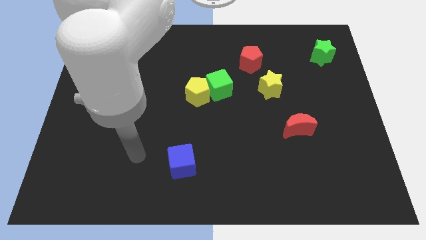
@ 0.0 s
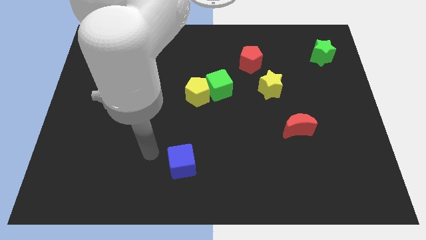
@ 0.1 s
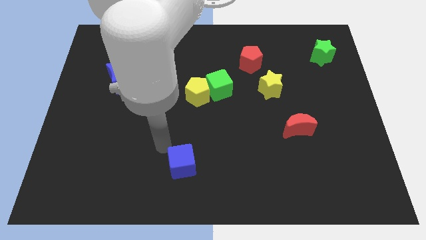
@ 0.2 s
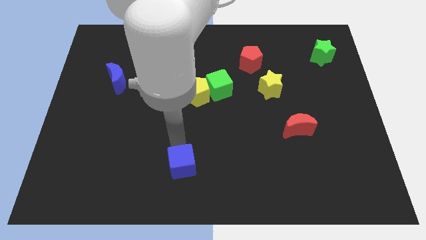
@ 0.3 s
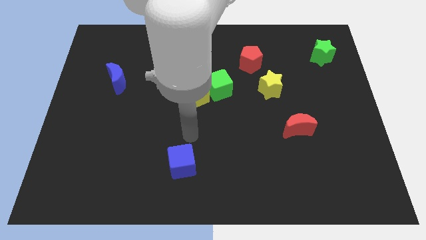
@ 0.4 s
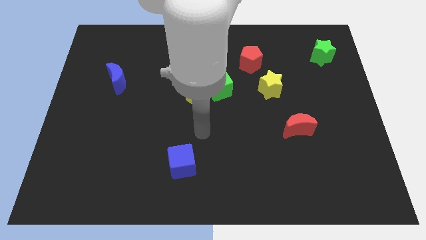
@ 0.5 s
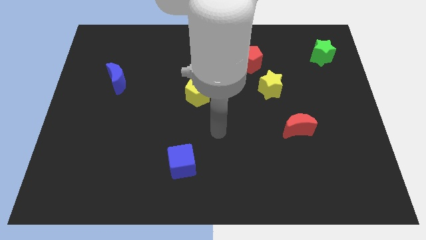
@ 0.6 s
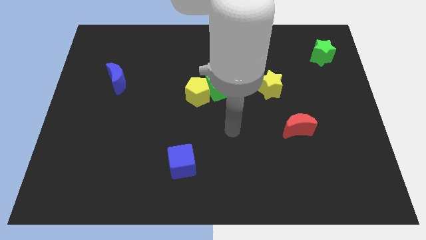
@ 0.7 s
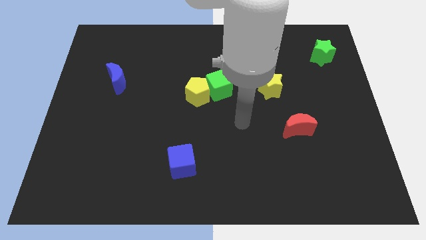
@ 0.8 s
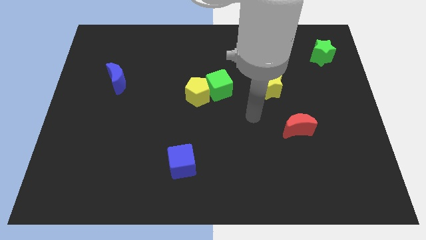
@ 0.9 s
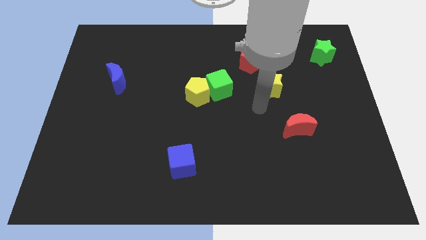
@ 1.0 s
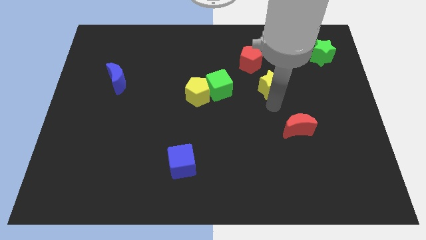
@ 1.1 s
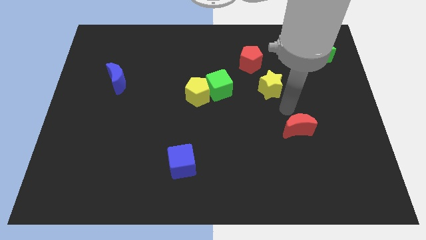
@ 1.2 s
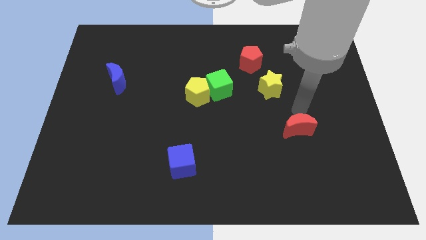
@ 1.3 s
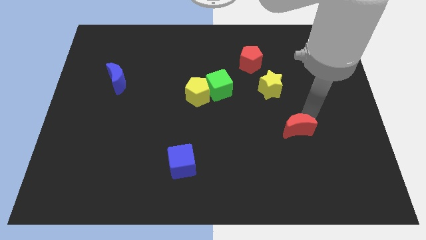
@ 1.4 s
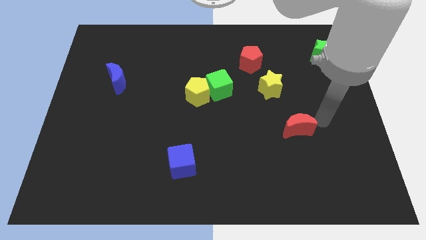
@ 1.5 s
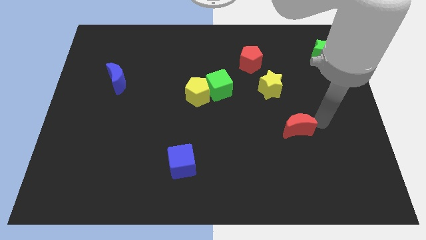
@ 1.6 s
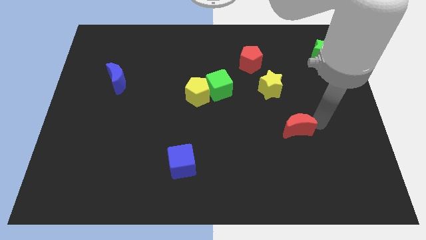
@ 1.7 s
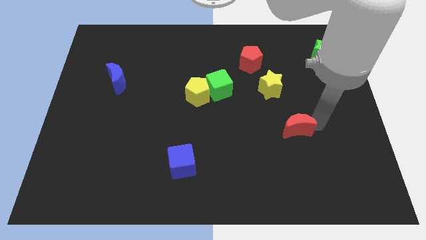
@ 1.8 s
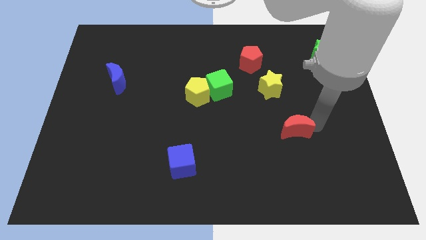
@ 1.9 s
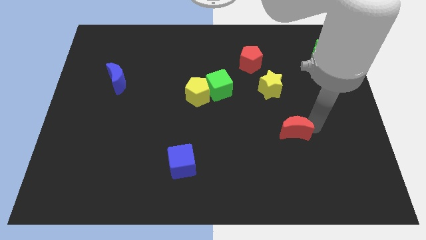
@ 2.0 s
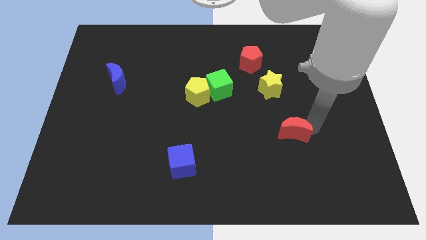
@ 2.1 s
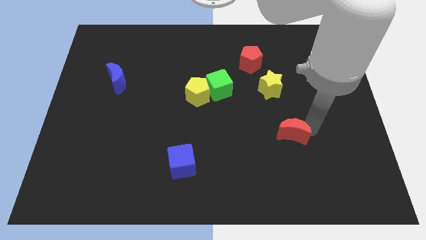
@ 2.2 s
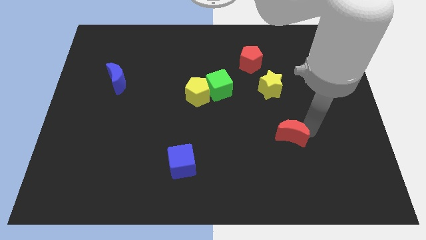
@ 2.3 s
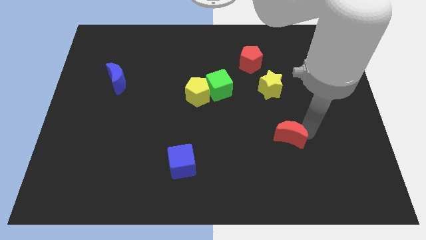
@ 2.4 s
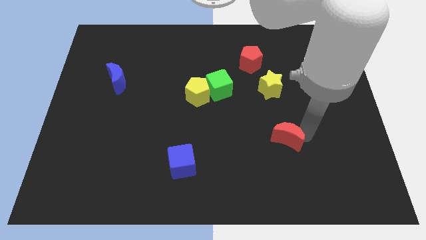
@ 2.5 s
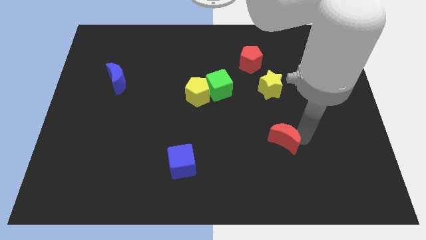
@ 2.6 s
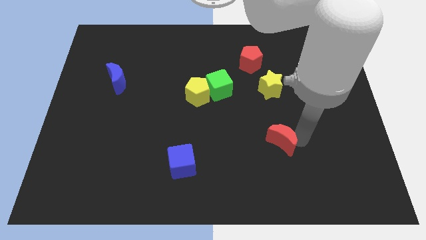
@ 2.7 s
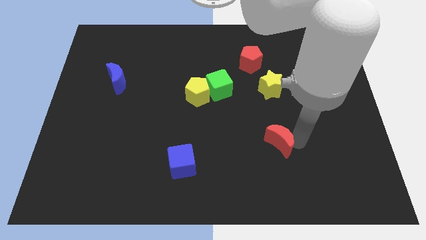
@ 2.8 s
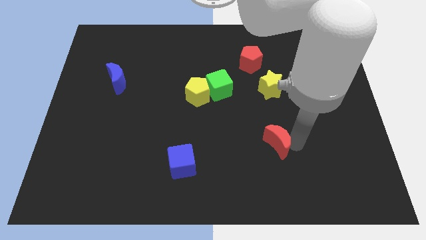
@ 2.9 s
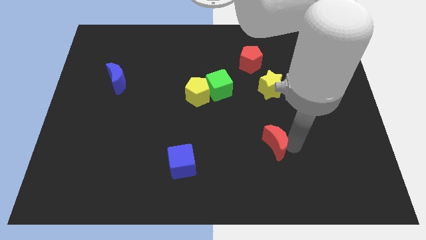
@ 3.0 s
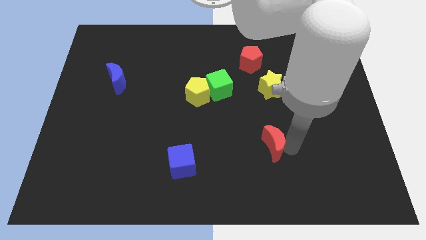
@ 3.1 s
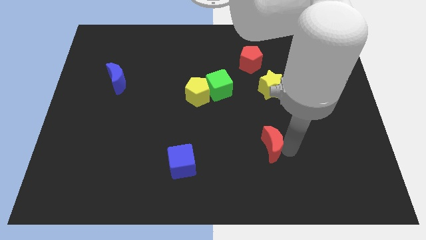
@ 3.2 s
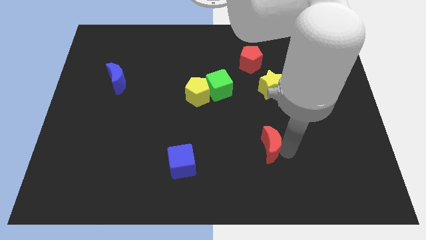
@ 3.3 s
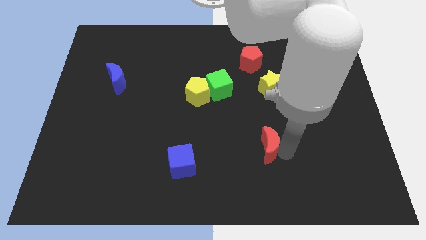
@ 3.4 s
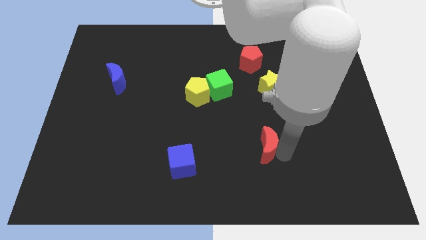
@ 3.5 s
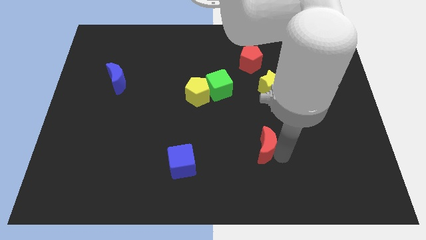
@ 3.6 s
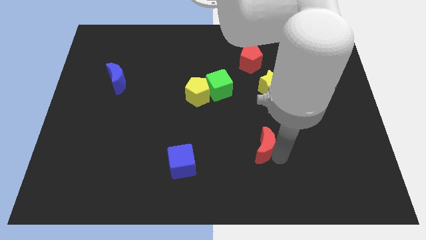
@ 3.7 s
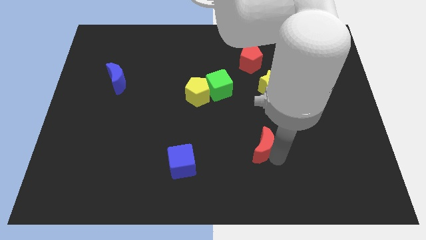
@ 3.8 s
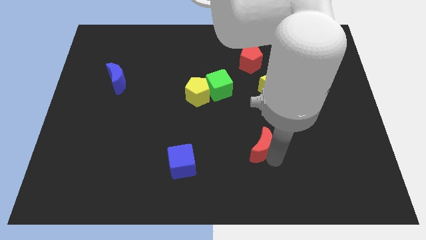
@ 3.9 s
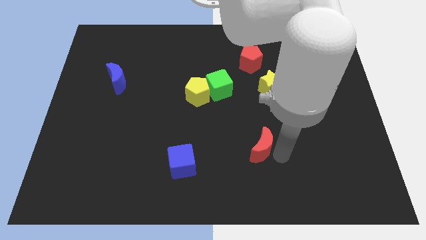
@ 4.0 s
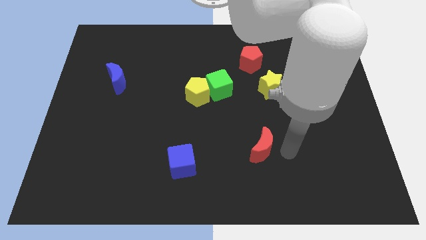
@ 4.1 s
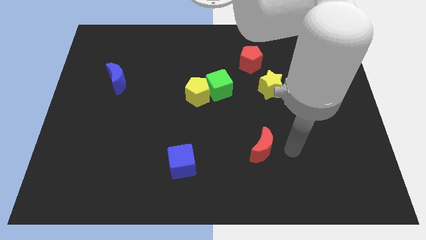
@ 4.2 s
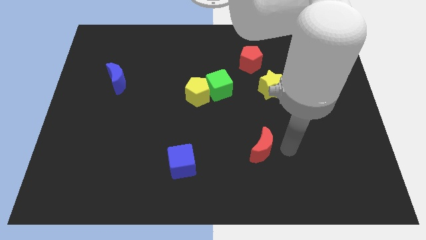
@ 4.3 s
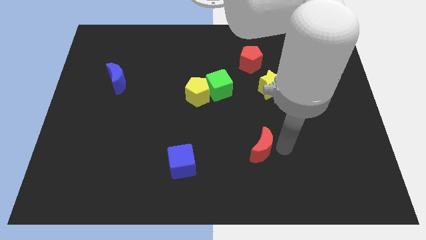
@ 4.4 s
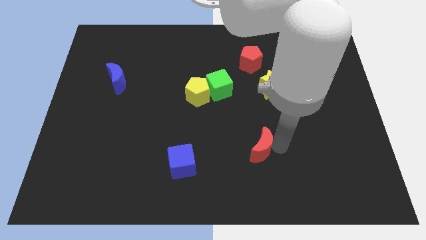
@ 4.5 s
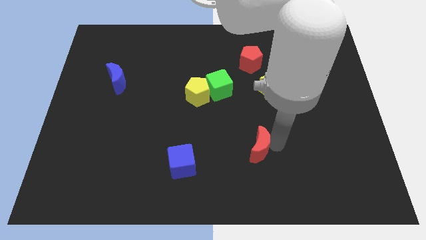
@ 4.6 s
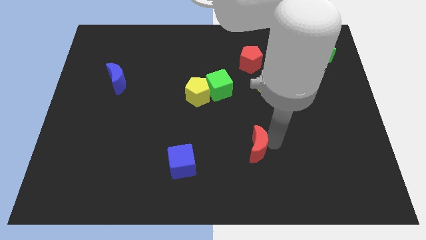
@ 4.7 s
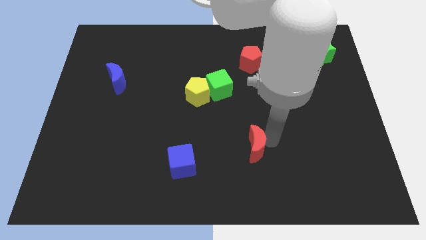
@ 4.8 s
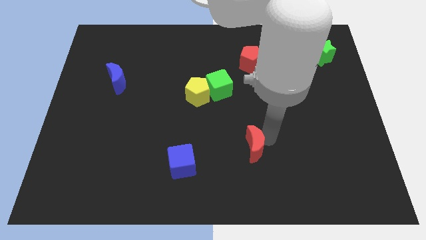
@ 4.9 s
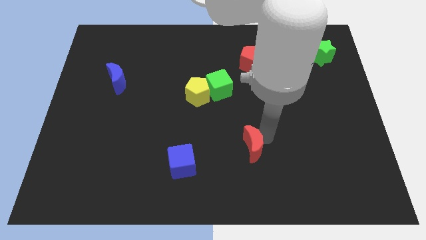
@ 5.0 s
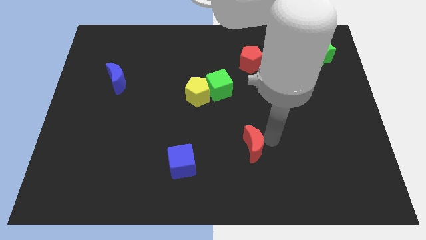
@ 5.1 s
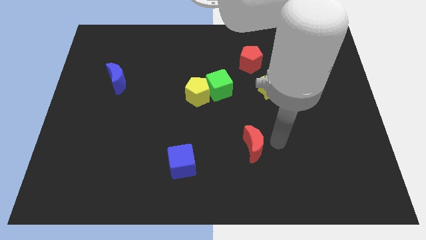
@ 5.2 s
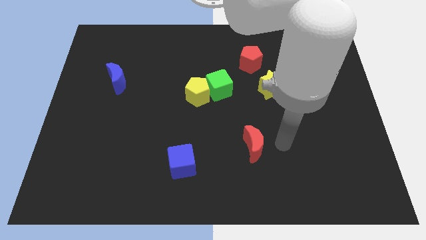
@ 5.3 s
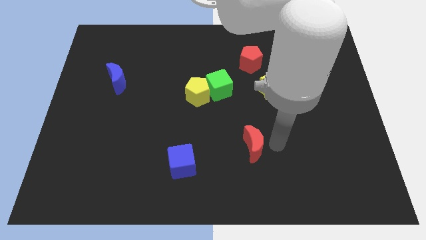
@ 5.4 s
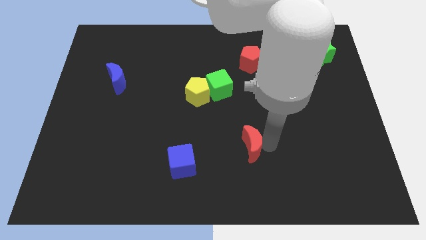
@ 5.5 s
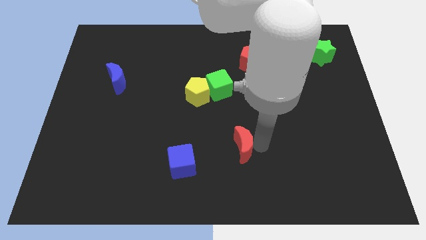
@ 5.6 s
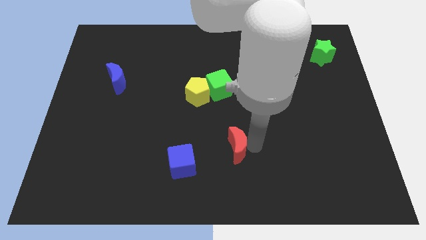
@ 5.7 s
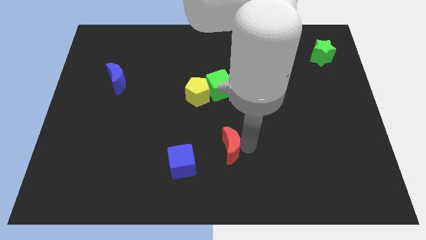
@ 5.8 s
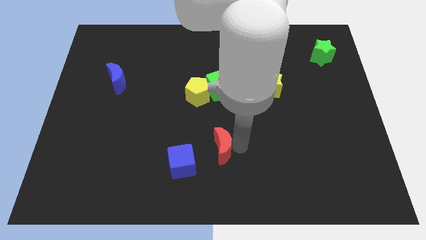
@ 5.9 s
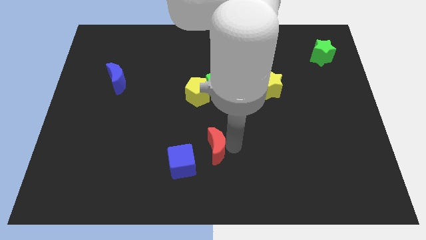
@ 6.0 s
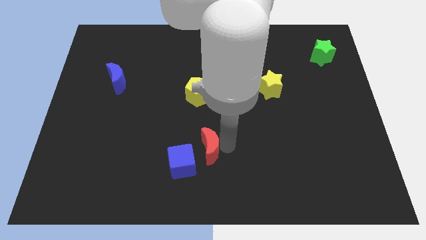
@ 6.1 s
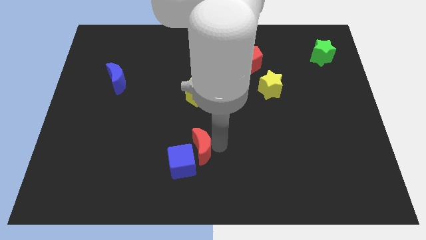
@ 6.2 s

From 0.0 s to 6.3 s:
move the red moon next to the blue cube

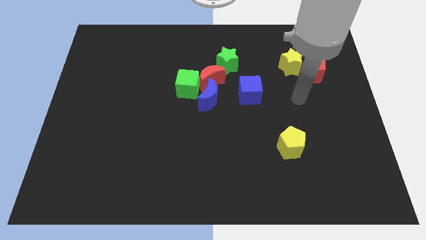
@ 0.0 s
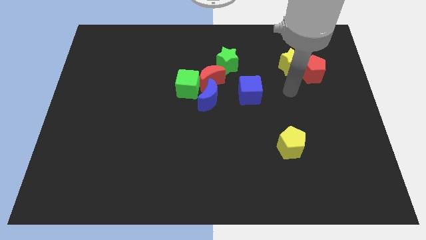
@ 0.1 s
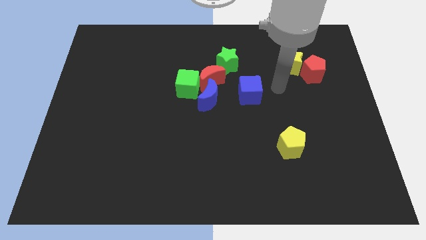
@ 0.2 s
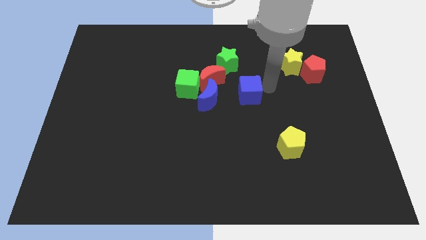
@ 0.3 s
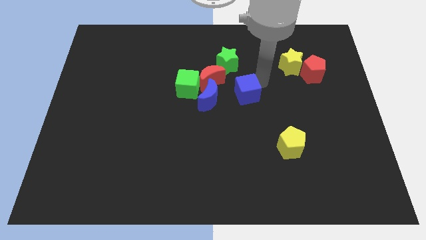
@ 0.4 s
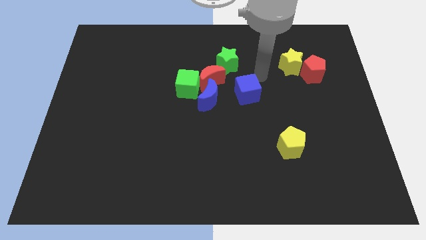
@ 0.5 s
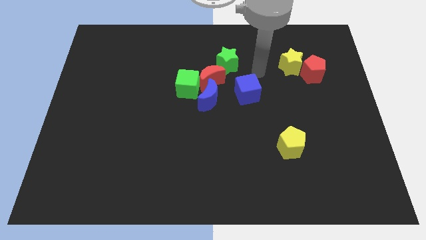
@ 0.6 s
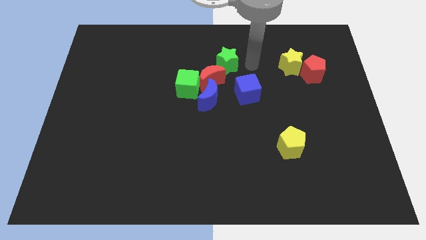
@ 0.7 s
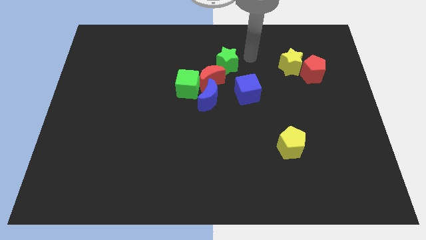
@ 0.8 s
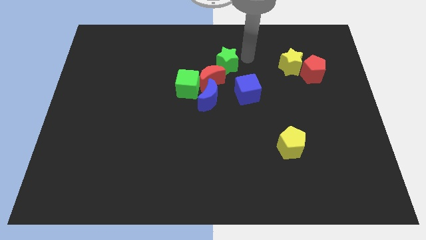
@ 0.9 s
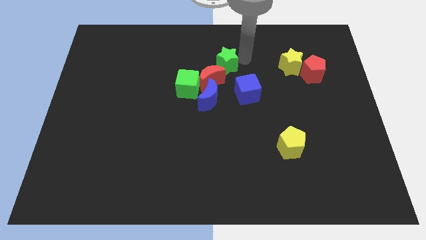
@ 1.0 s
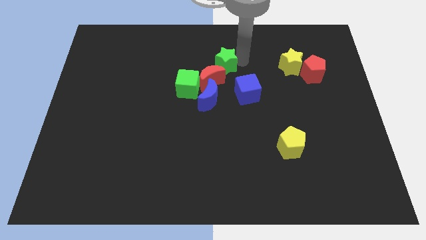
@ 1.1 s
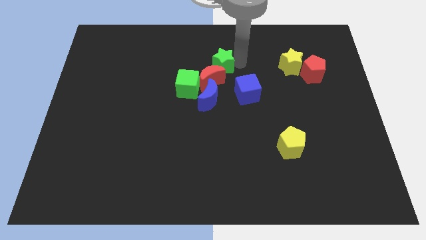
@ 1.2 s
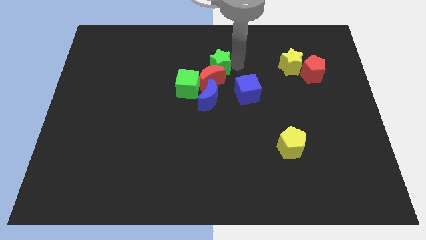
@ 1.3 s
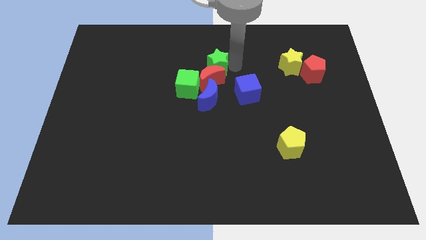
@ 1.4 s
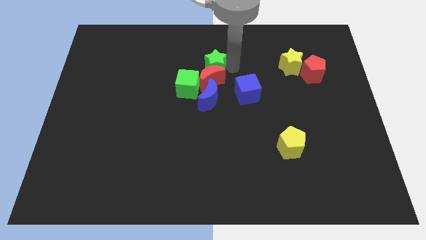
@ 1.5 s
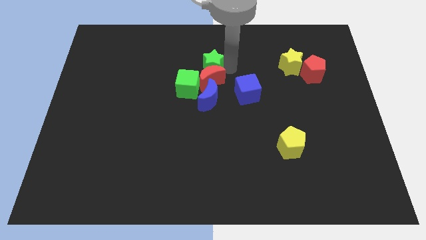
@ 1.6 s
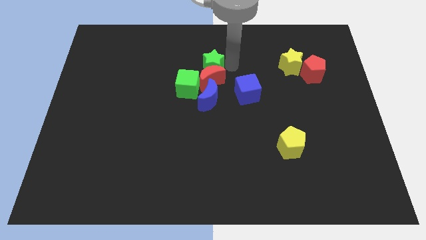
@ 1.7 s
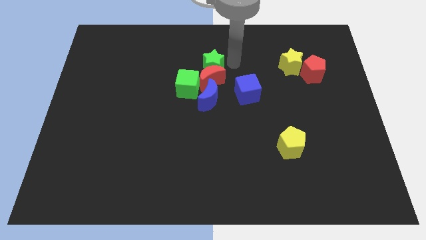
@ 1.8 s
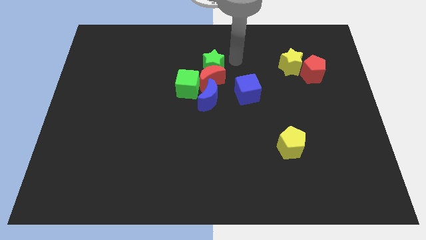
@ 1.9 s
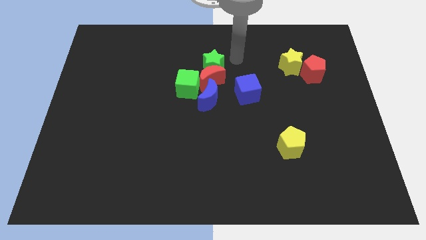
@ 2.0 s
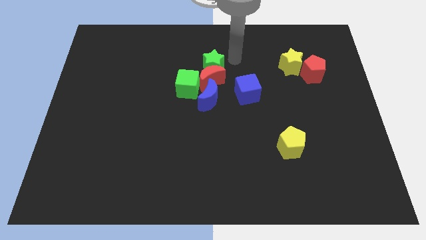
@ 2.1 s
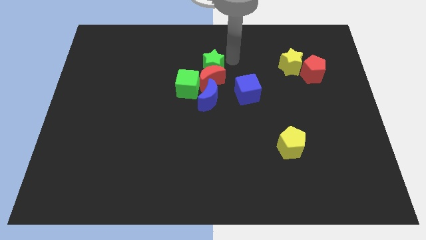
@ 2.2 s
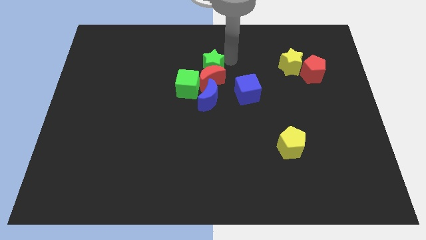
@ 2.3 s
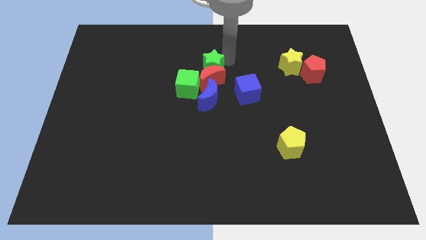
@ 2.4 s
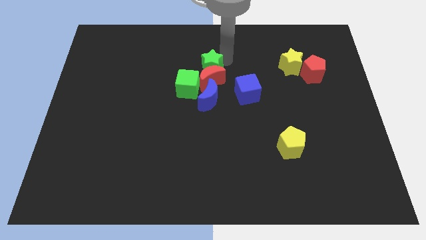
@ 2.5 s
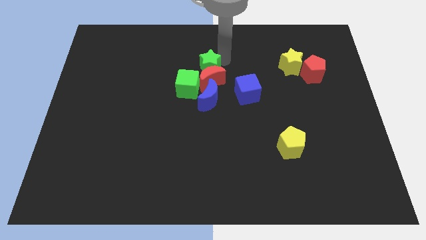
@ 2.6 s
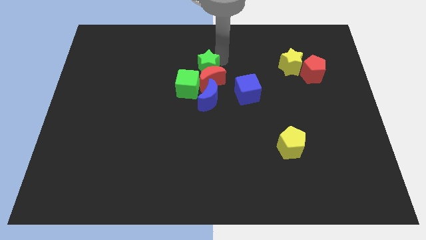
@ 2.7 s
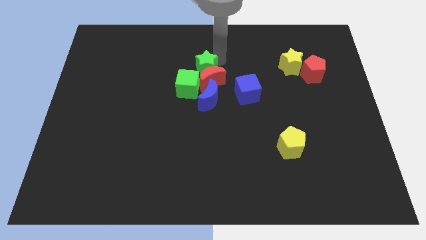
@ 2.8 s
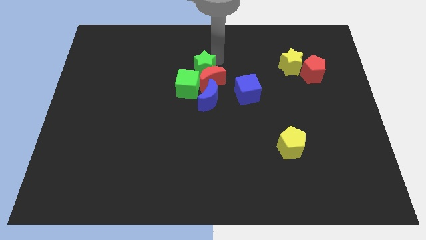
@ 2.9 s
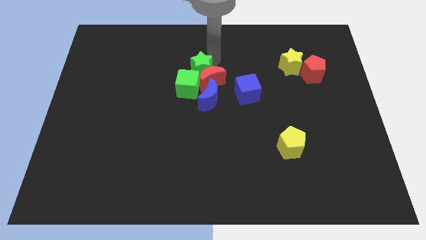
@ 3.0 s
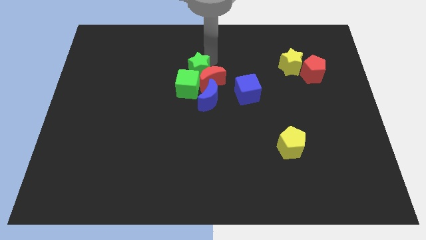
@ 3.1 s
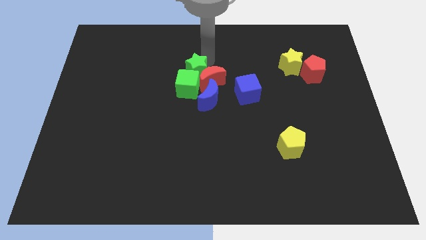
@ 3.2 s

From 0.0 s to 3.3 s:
slide the green star to the green cube
